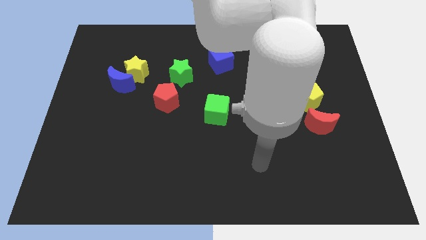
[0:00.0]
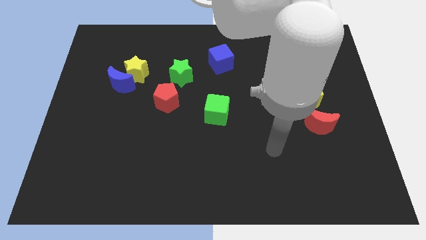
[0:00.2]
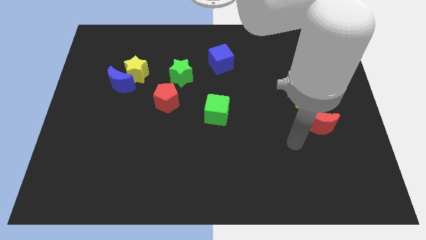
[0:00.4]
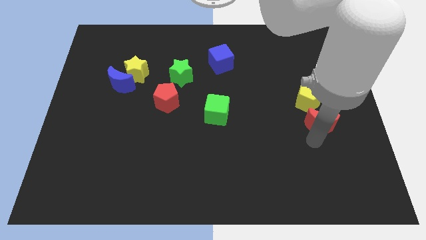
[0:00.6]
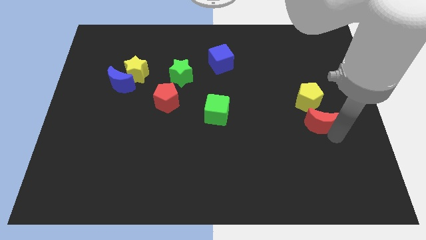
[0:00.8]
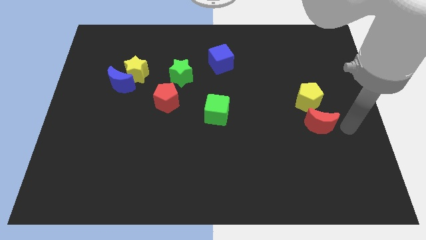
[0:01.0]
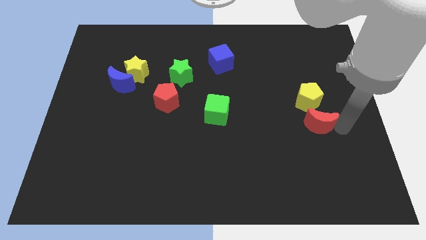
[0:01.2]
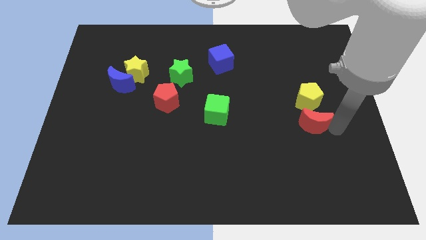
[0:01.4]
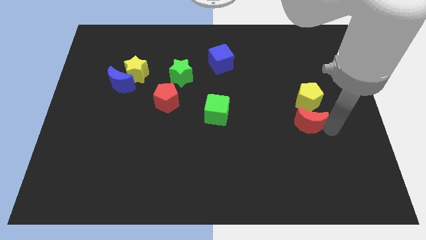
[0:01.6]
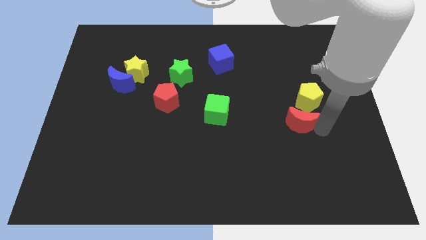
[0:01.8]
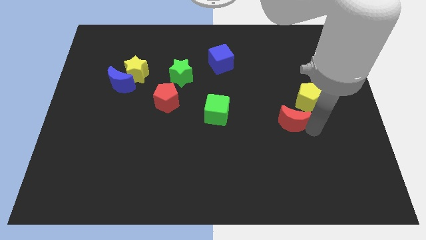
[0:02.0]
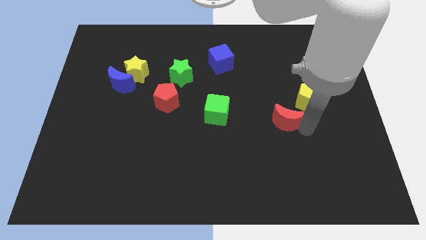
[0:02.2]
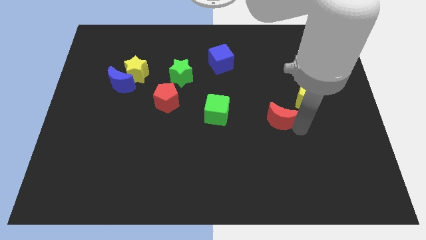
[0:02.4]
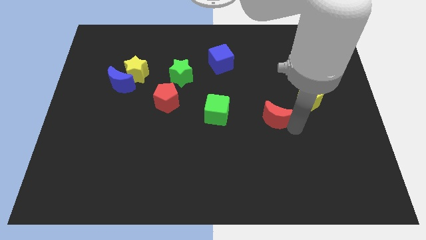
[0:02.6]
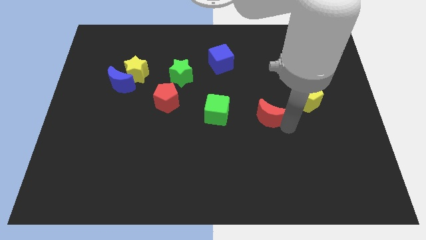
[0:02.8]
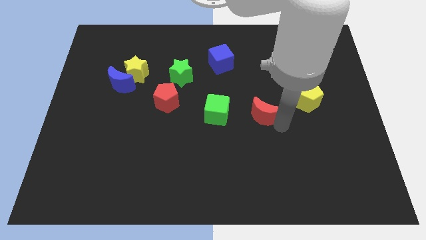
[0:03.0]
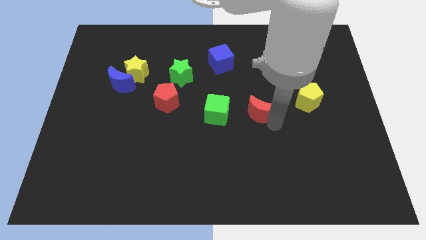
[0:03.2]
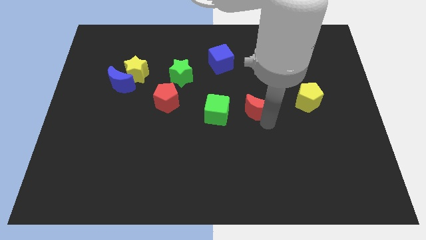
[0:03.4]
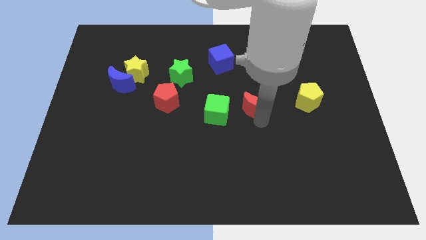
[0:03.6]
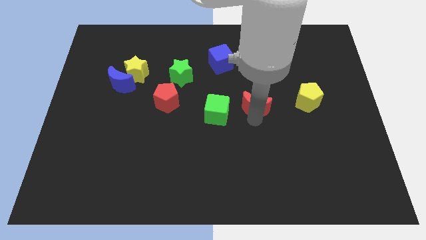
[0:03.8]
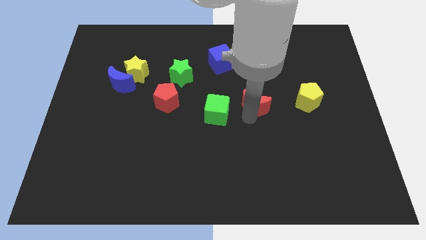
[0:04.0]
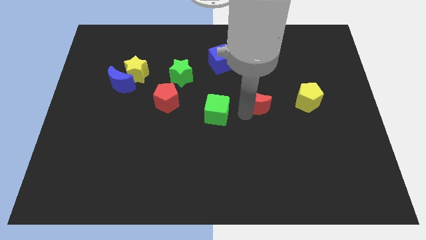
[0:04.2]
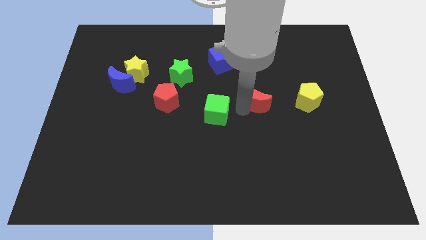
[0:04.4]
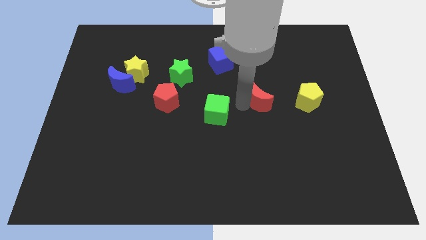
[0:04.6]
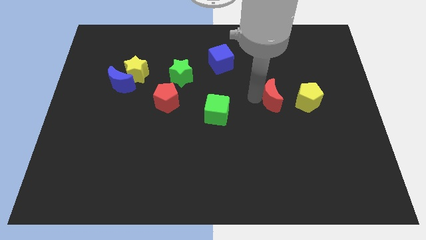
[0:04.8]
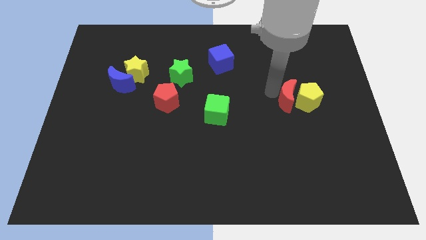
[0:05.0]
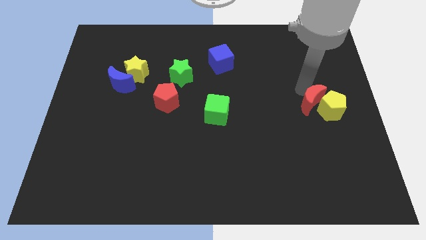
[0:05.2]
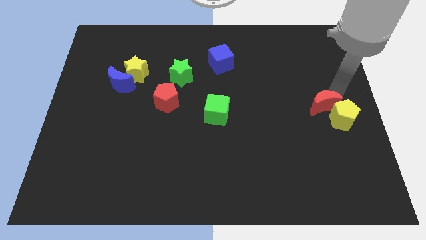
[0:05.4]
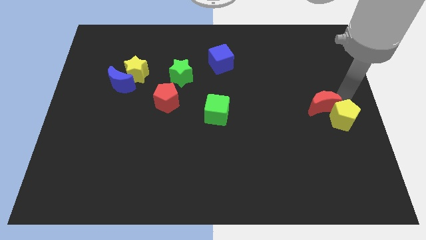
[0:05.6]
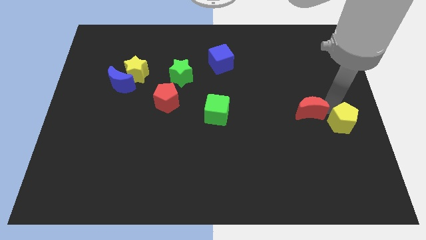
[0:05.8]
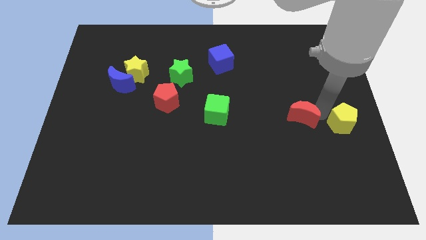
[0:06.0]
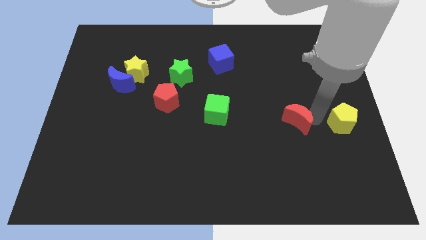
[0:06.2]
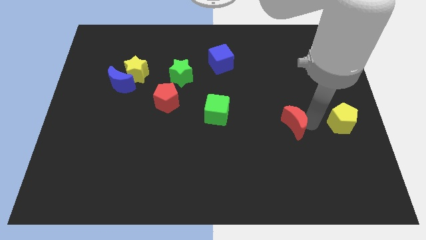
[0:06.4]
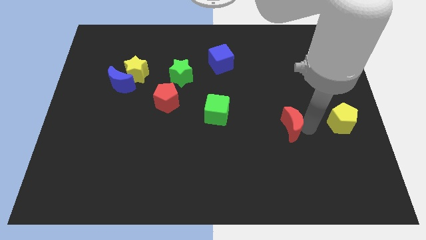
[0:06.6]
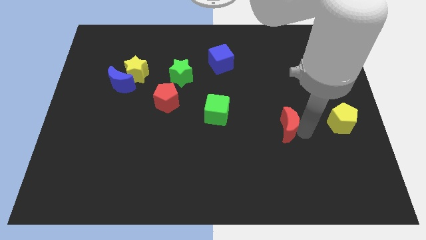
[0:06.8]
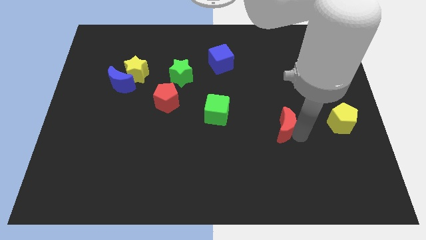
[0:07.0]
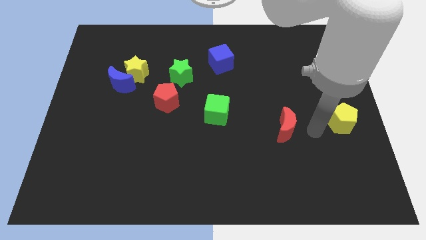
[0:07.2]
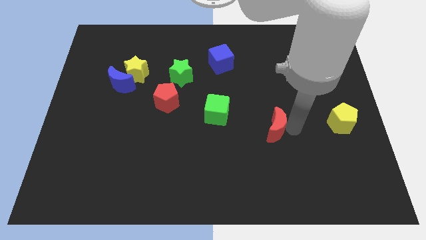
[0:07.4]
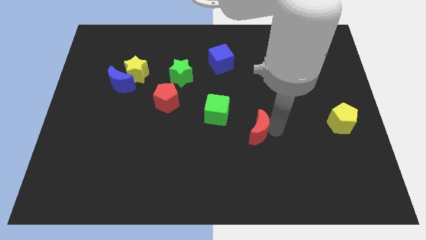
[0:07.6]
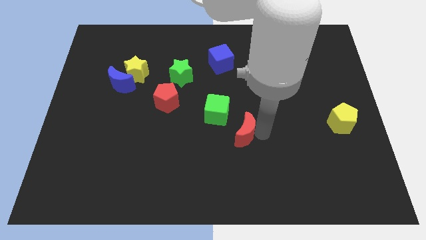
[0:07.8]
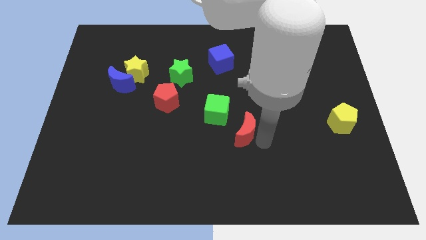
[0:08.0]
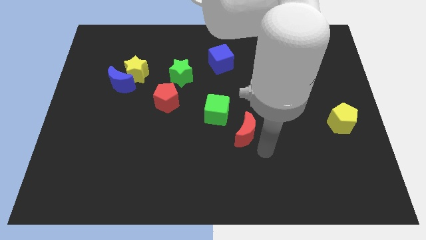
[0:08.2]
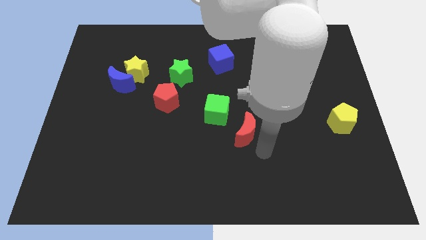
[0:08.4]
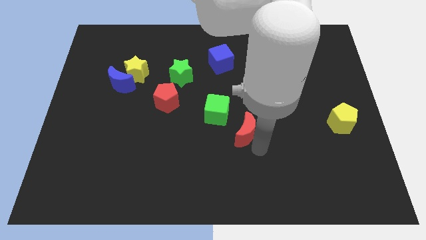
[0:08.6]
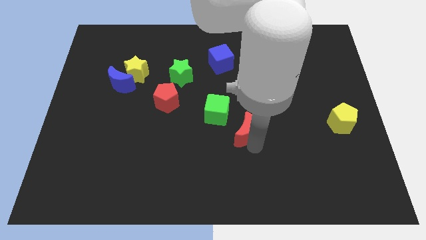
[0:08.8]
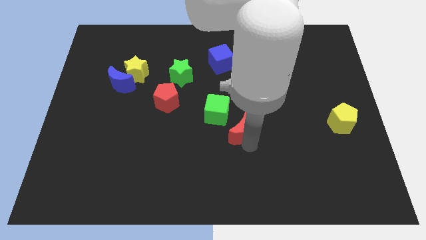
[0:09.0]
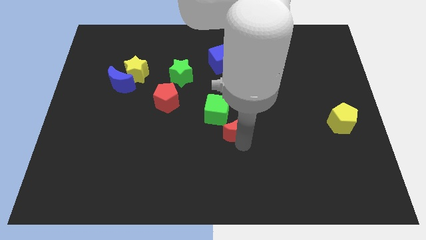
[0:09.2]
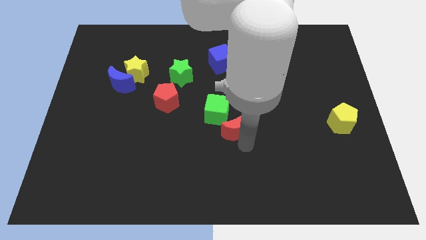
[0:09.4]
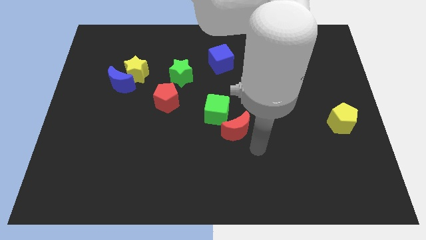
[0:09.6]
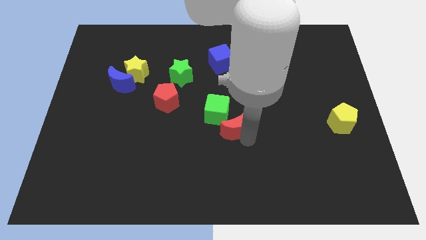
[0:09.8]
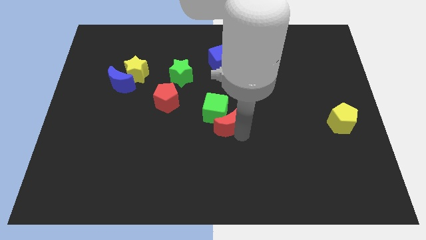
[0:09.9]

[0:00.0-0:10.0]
put the red moon towards the green cube

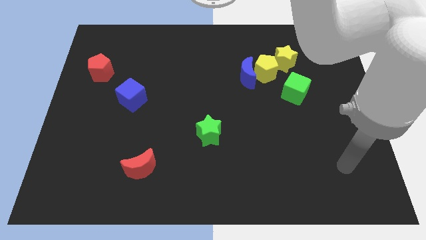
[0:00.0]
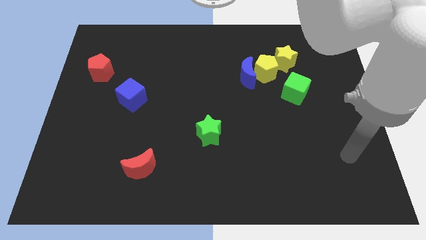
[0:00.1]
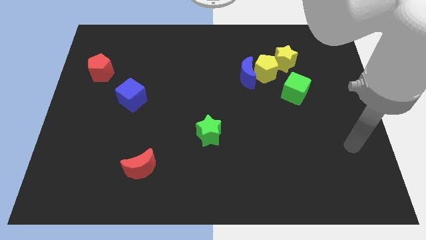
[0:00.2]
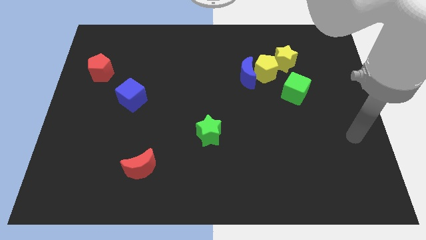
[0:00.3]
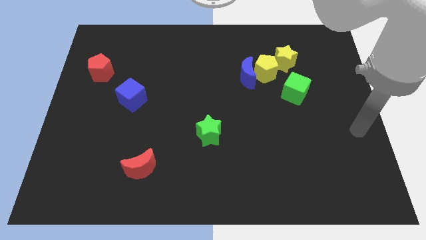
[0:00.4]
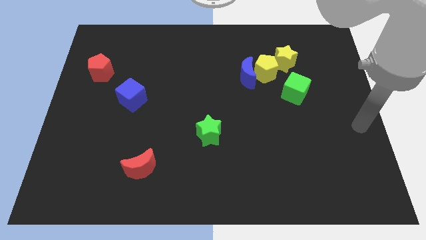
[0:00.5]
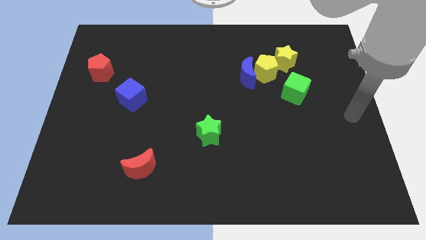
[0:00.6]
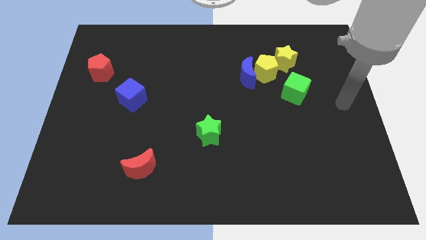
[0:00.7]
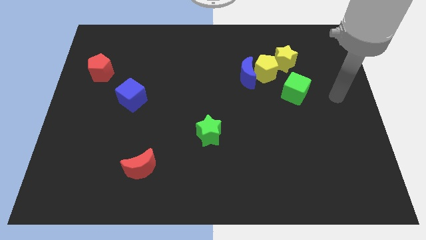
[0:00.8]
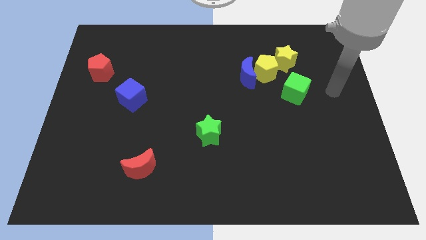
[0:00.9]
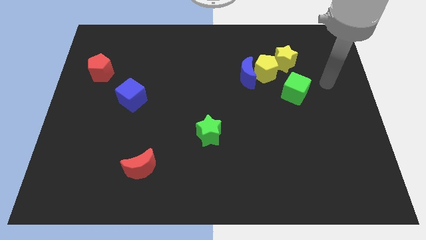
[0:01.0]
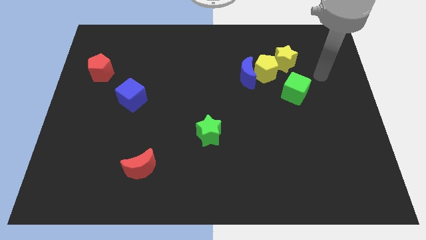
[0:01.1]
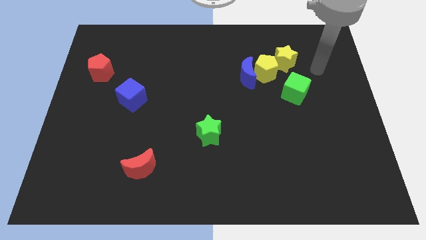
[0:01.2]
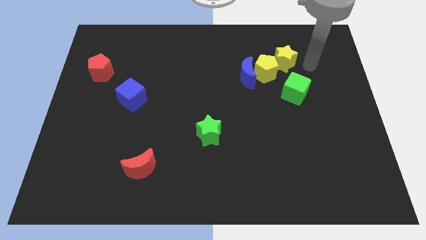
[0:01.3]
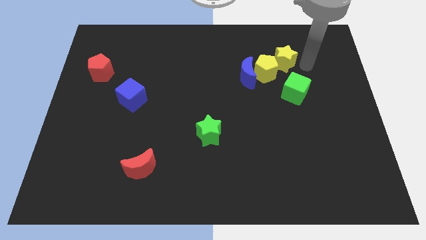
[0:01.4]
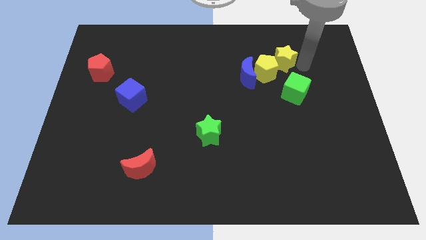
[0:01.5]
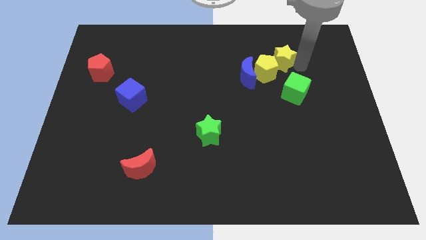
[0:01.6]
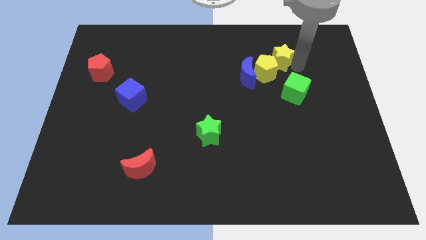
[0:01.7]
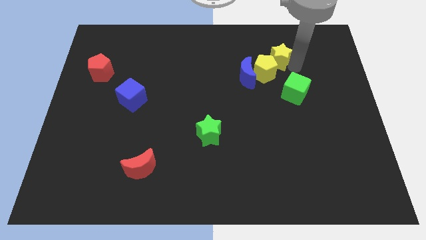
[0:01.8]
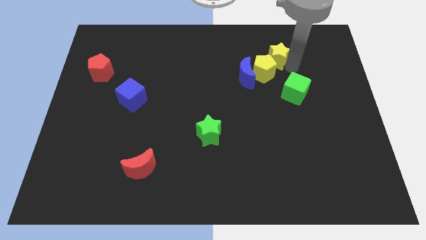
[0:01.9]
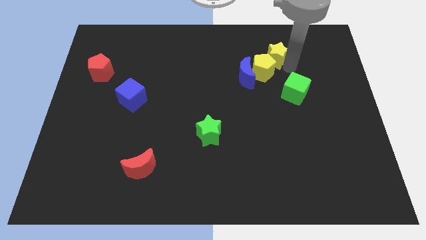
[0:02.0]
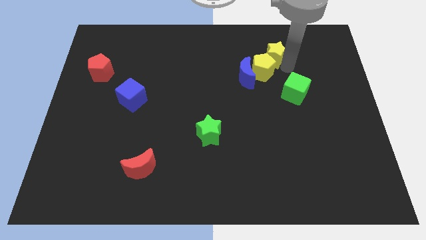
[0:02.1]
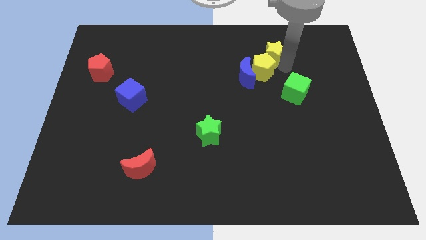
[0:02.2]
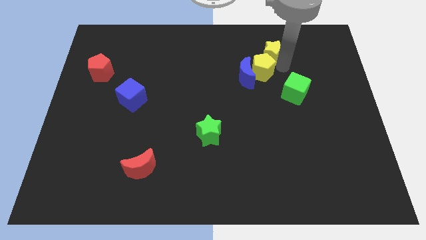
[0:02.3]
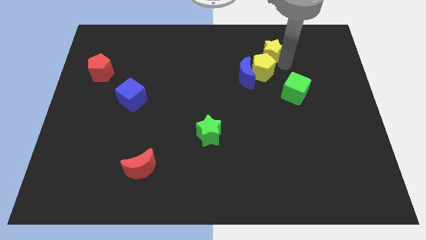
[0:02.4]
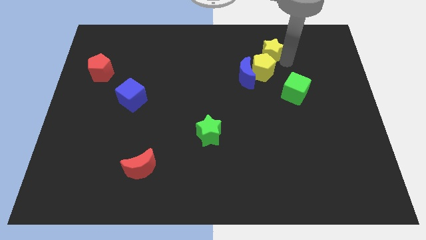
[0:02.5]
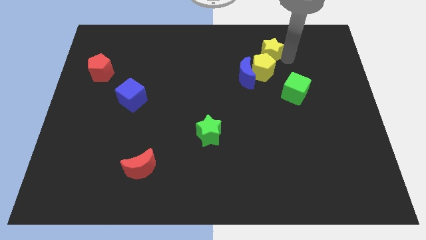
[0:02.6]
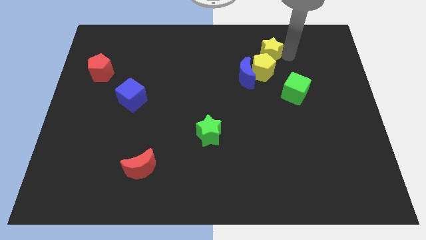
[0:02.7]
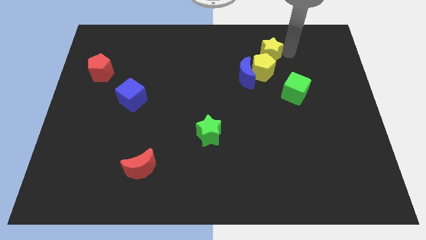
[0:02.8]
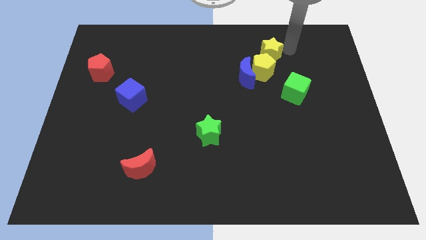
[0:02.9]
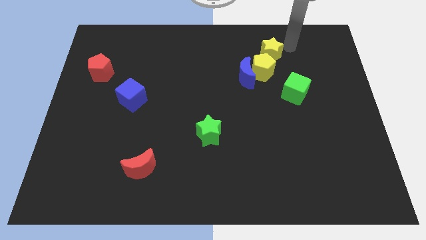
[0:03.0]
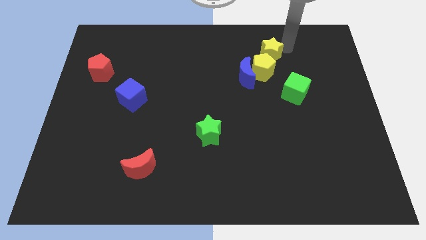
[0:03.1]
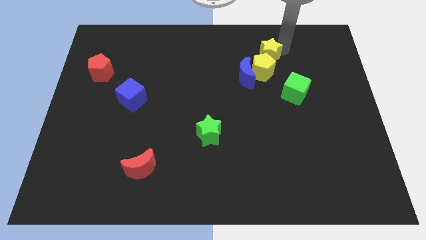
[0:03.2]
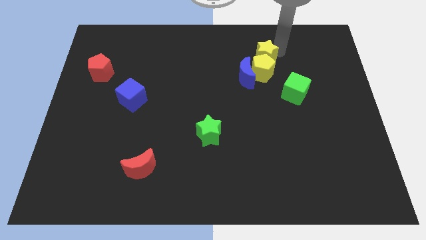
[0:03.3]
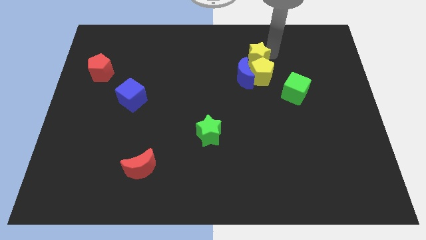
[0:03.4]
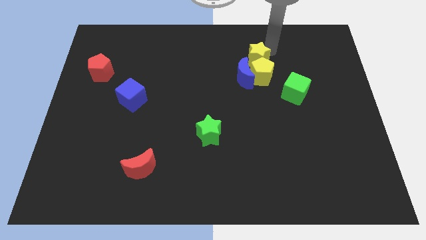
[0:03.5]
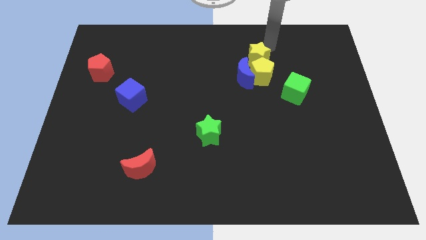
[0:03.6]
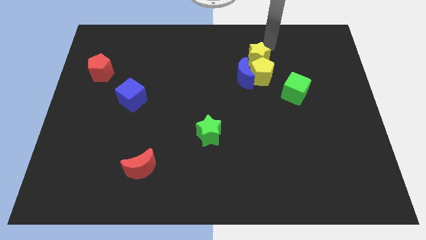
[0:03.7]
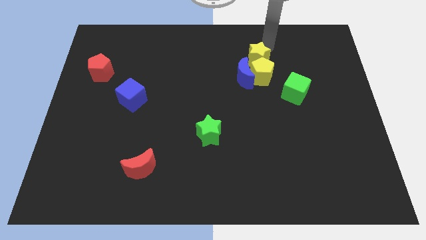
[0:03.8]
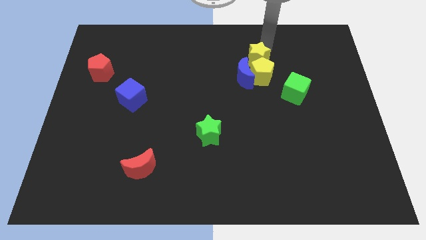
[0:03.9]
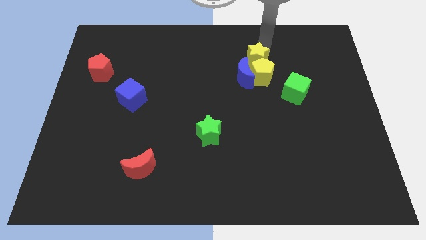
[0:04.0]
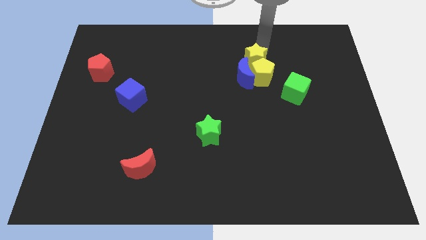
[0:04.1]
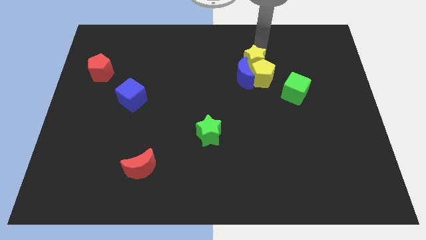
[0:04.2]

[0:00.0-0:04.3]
slide the yellow star close to the blue moon
